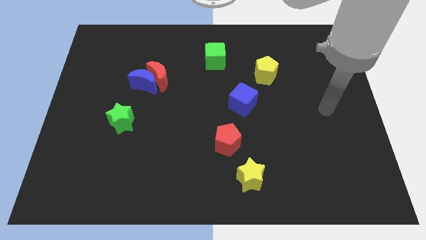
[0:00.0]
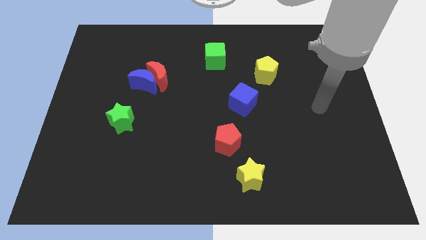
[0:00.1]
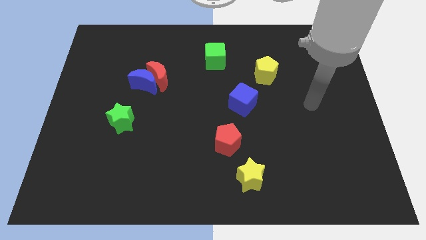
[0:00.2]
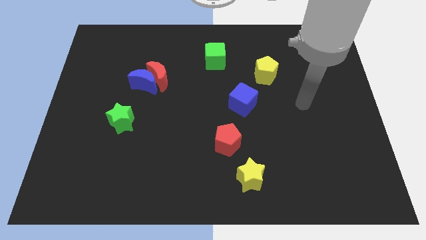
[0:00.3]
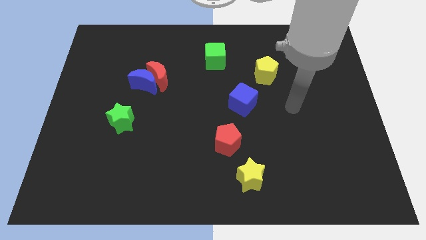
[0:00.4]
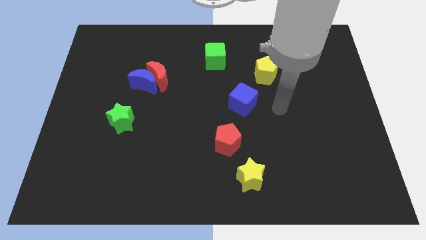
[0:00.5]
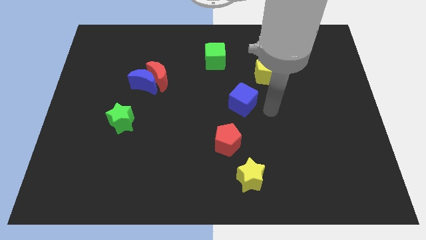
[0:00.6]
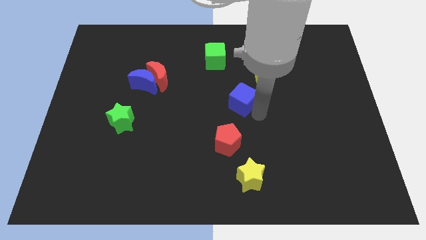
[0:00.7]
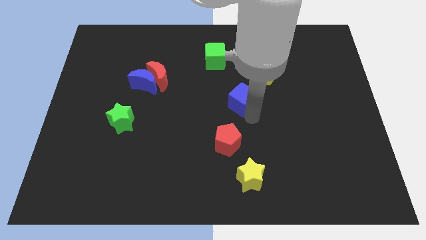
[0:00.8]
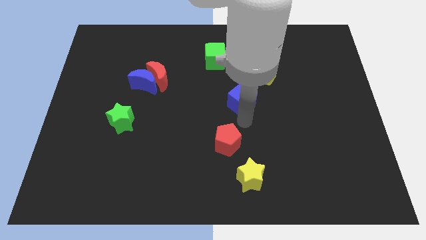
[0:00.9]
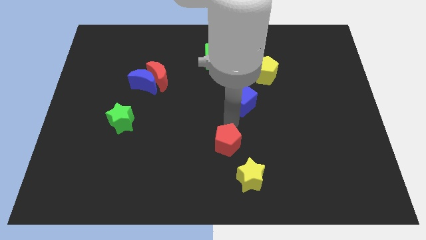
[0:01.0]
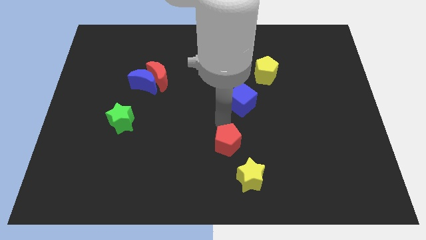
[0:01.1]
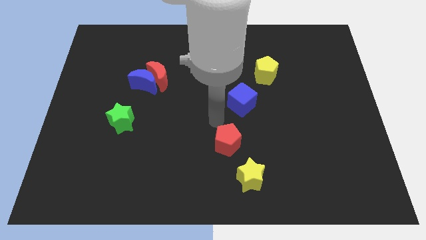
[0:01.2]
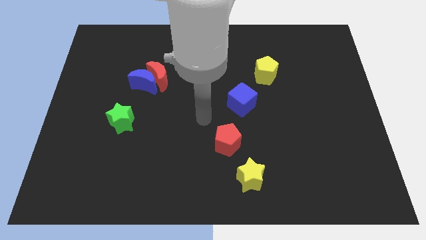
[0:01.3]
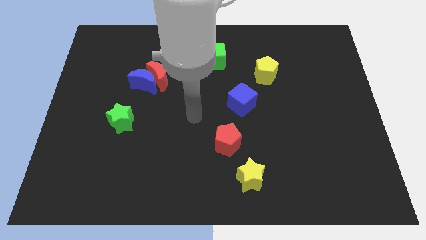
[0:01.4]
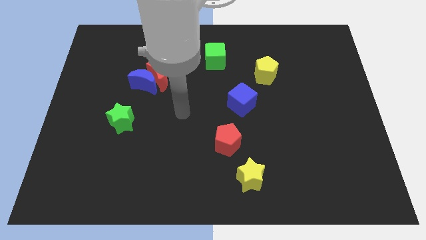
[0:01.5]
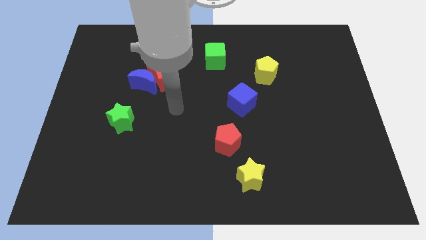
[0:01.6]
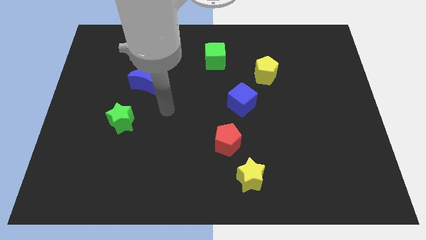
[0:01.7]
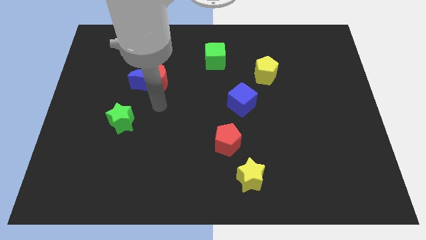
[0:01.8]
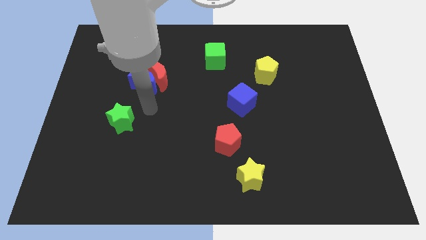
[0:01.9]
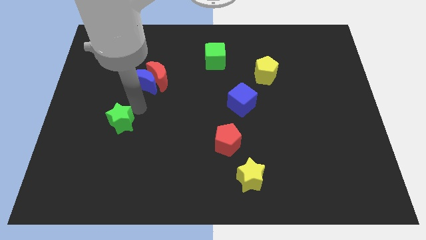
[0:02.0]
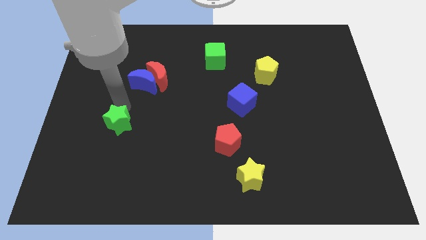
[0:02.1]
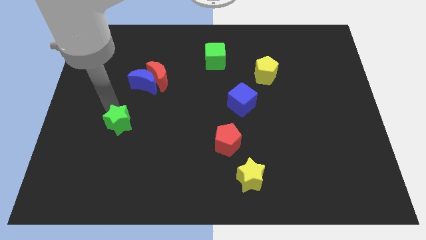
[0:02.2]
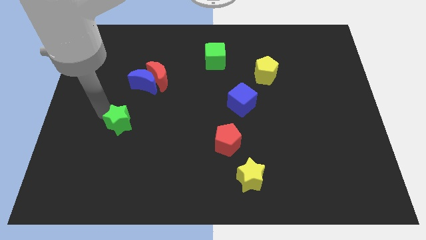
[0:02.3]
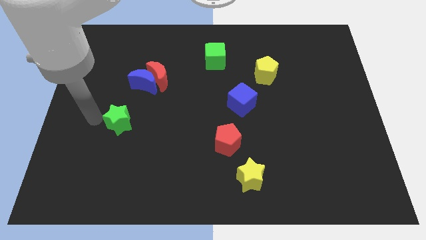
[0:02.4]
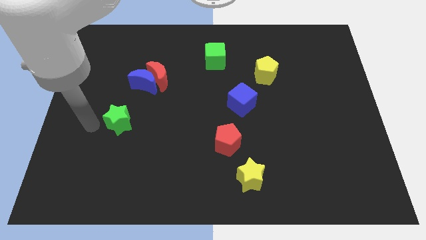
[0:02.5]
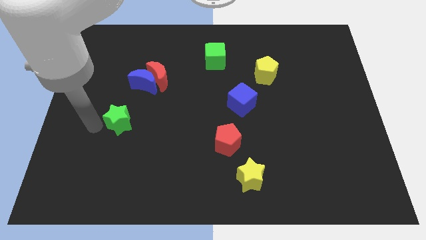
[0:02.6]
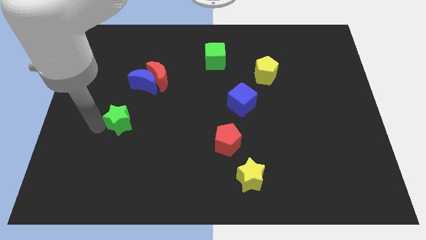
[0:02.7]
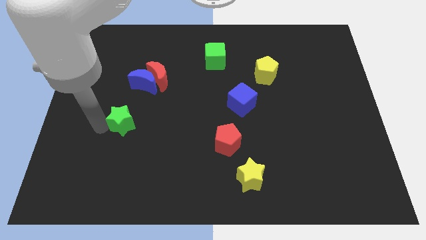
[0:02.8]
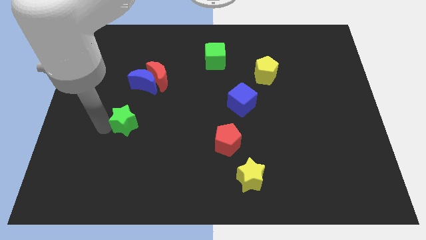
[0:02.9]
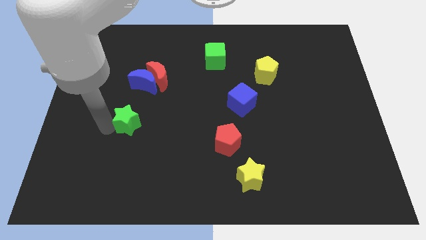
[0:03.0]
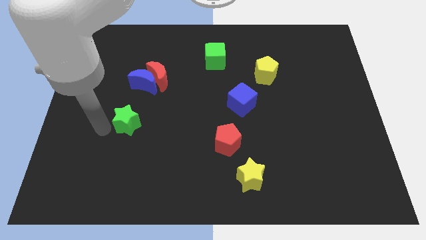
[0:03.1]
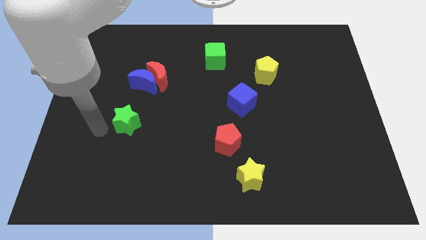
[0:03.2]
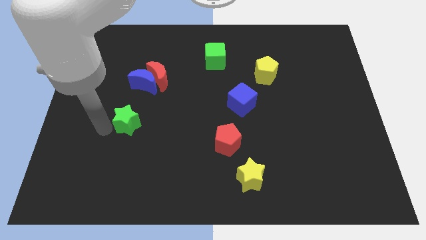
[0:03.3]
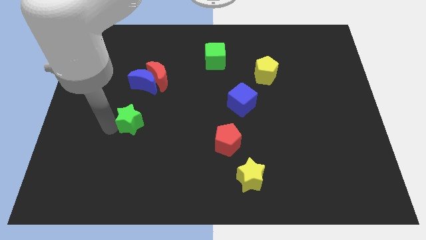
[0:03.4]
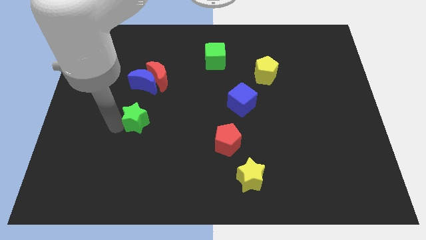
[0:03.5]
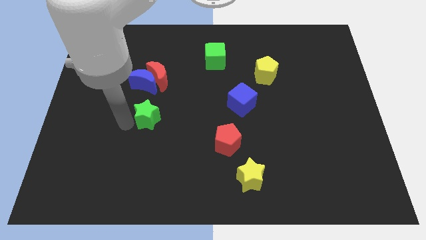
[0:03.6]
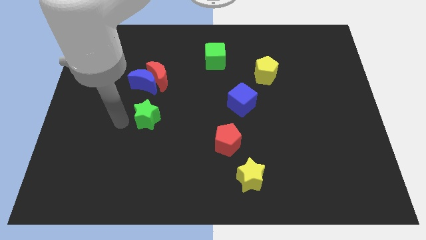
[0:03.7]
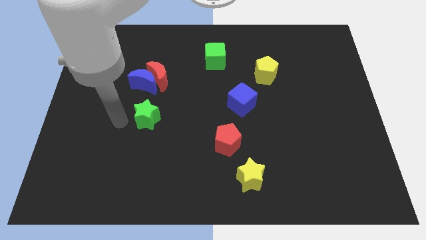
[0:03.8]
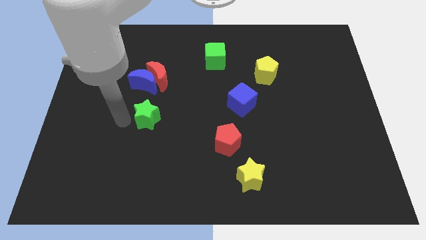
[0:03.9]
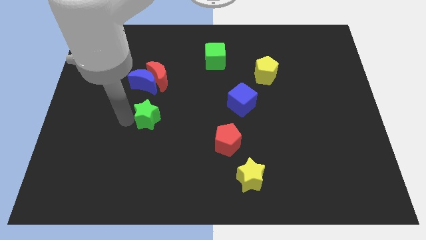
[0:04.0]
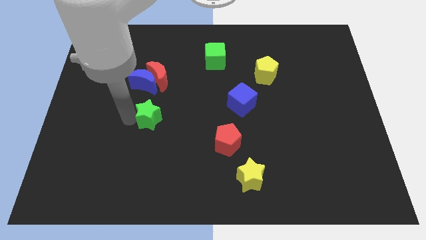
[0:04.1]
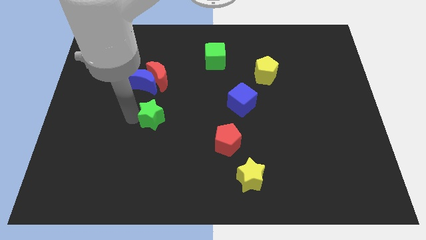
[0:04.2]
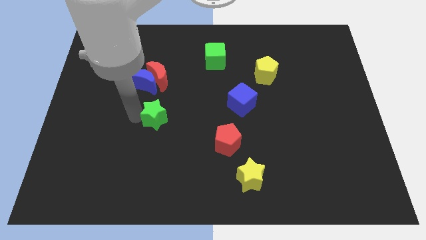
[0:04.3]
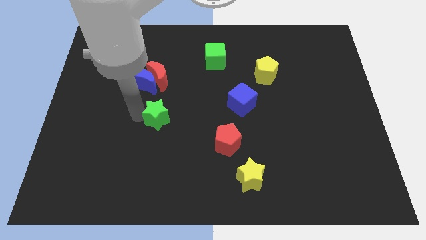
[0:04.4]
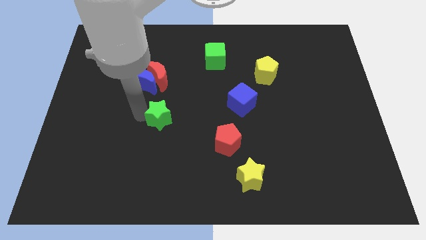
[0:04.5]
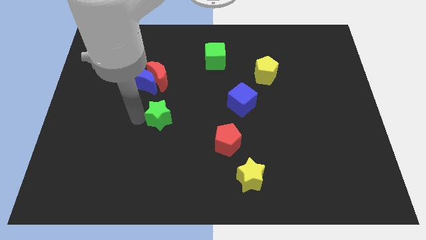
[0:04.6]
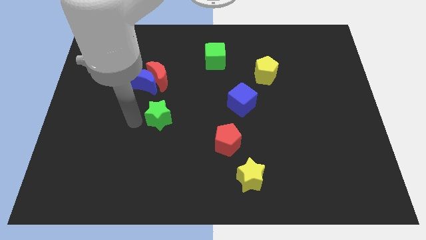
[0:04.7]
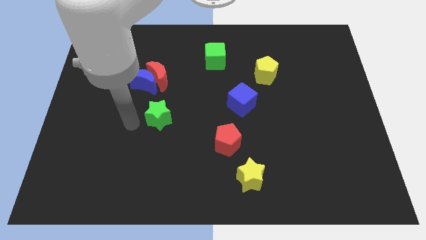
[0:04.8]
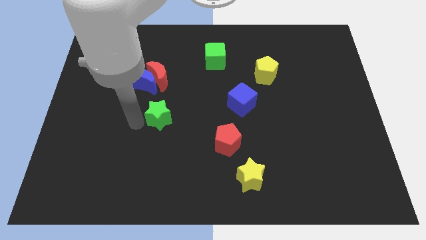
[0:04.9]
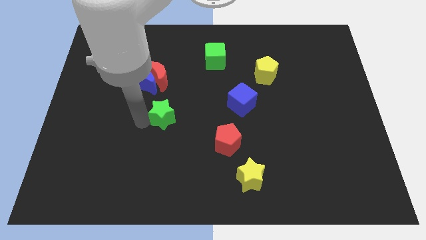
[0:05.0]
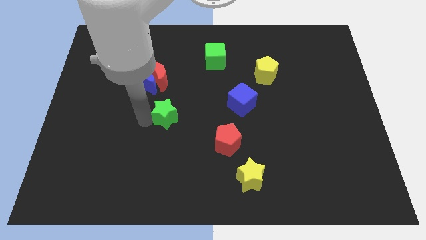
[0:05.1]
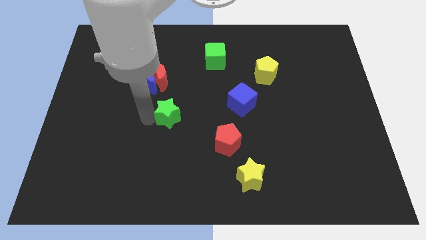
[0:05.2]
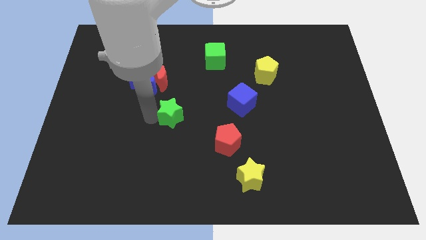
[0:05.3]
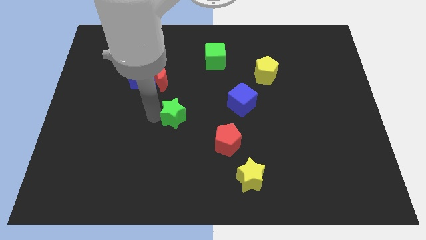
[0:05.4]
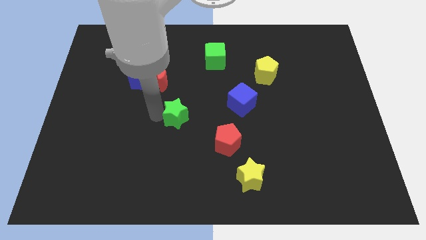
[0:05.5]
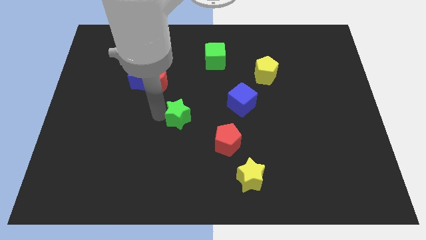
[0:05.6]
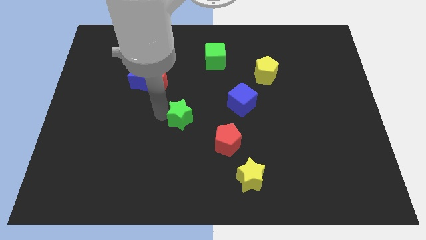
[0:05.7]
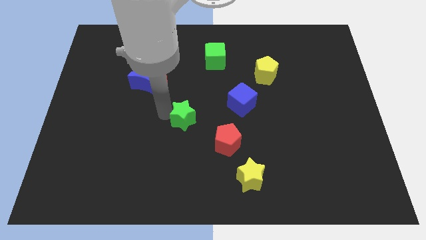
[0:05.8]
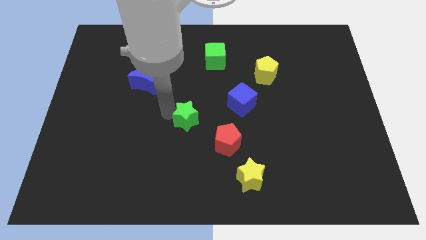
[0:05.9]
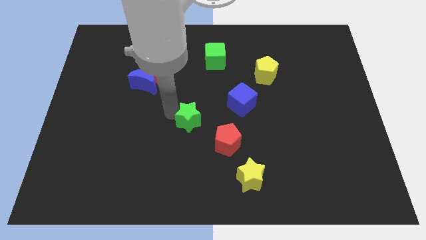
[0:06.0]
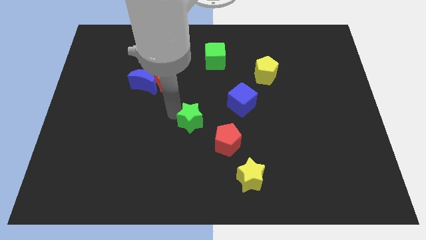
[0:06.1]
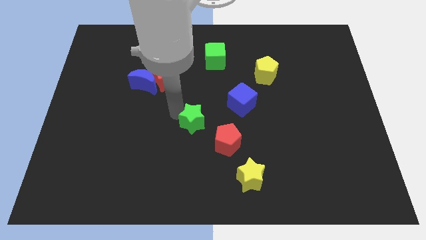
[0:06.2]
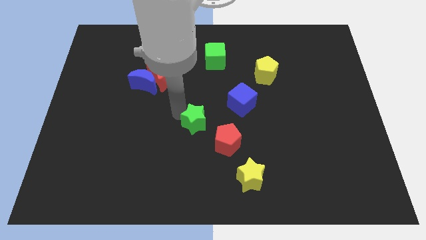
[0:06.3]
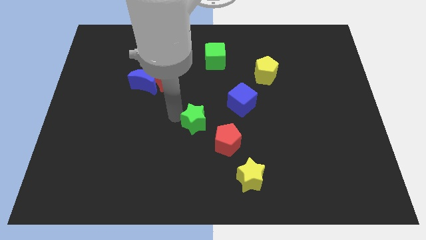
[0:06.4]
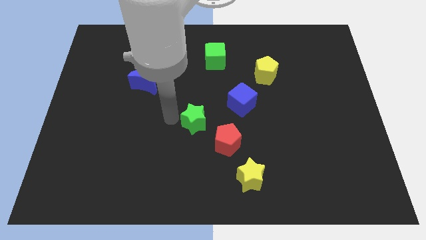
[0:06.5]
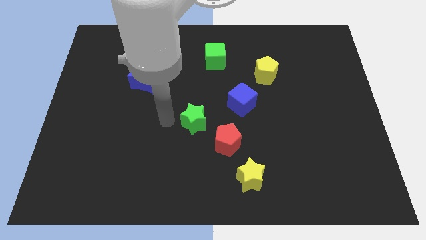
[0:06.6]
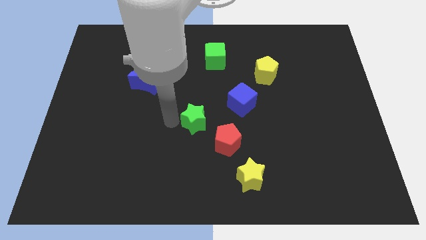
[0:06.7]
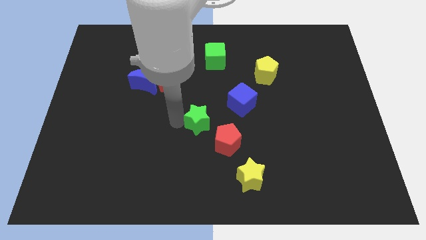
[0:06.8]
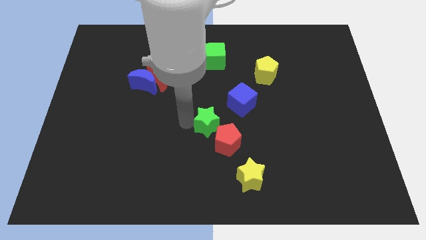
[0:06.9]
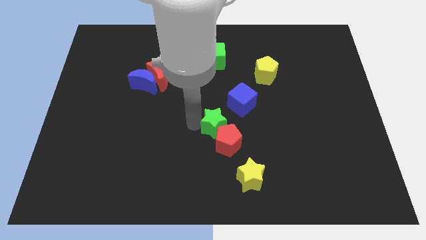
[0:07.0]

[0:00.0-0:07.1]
slide the green star to the right

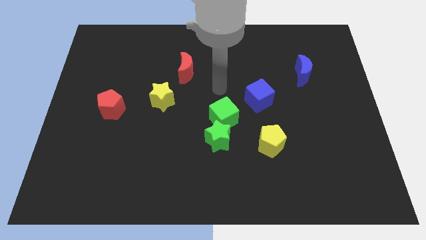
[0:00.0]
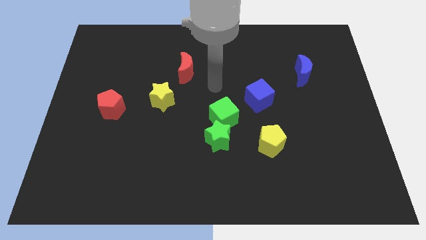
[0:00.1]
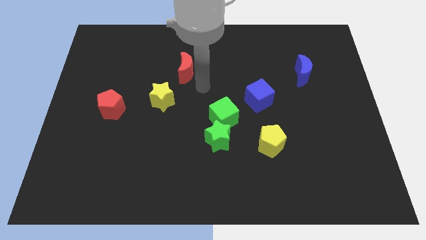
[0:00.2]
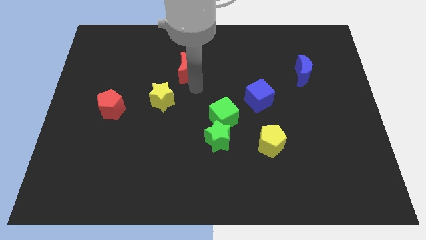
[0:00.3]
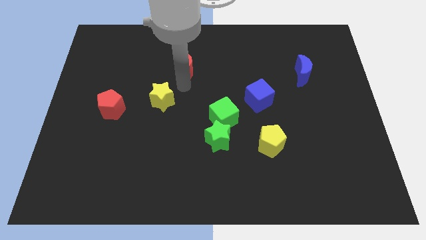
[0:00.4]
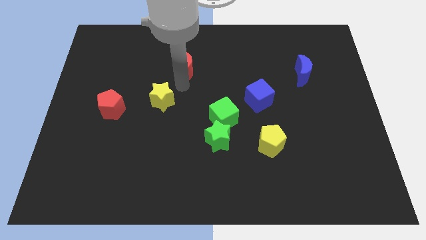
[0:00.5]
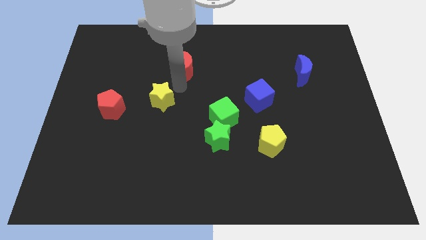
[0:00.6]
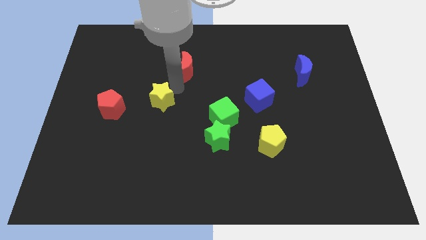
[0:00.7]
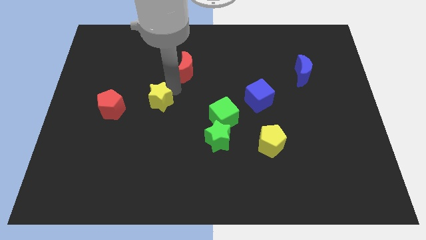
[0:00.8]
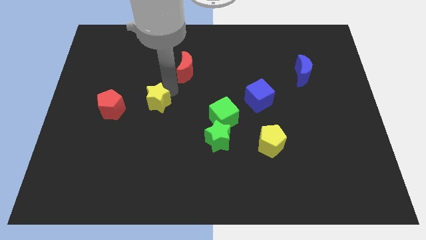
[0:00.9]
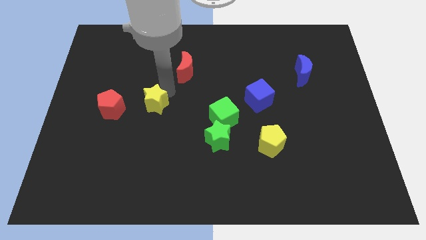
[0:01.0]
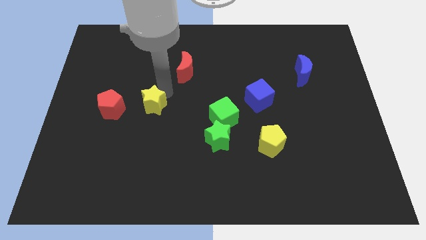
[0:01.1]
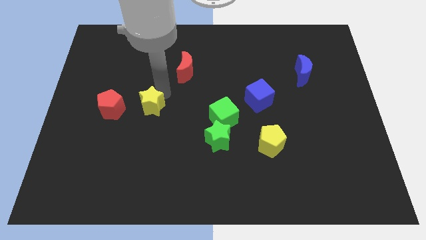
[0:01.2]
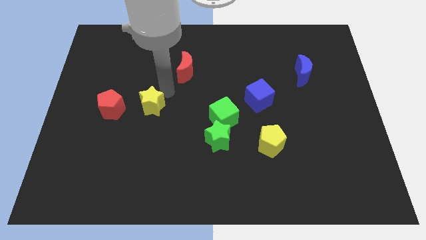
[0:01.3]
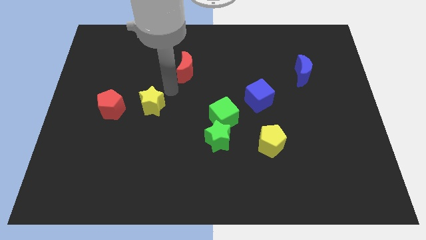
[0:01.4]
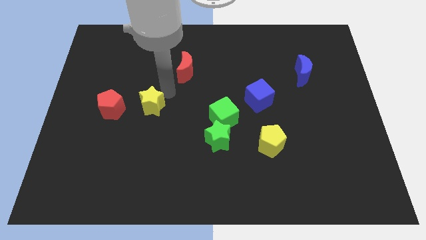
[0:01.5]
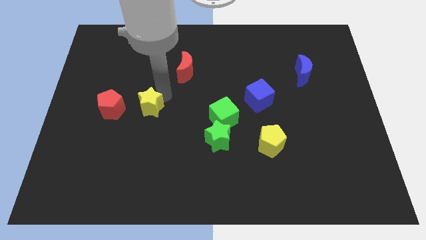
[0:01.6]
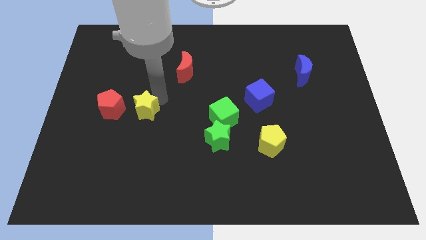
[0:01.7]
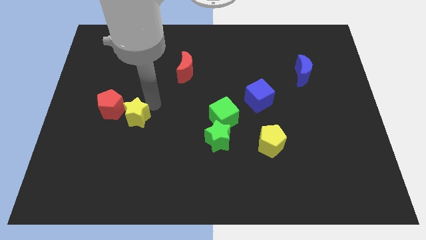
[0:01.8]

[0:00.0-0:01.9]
move the yellow star somewhat downwards and then left
